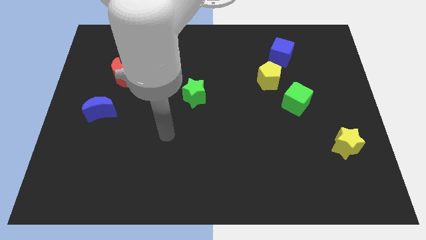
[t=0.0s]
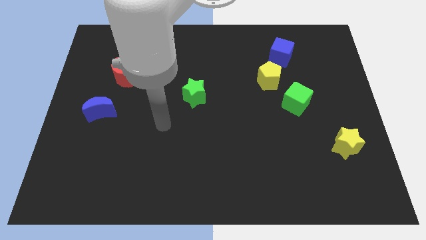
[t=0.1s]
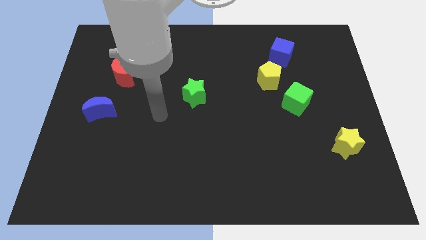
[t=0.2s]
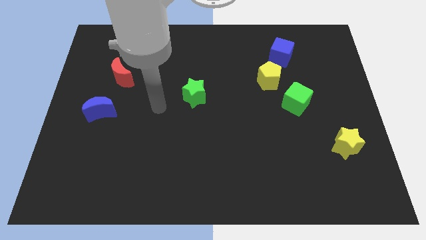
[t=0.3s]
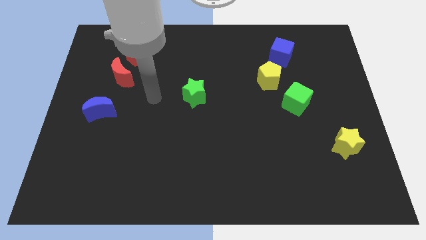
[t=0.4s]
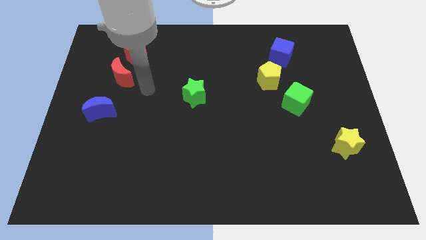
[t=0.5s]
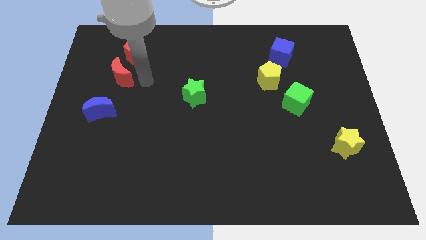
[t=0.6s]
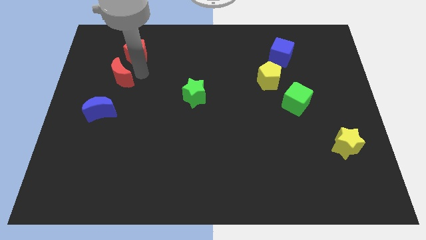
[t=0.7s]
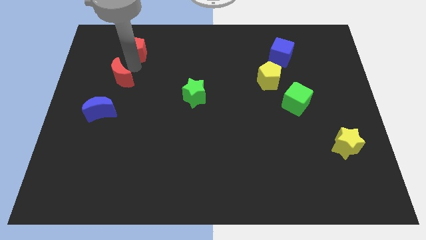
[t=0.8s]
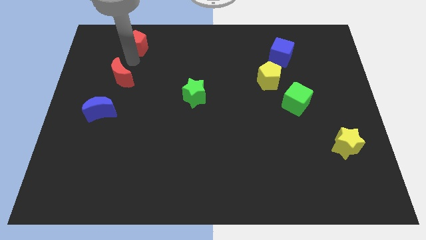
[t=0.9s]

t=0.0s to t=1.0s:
move the red moon away from the red pentagon

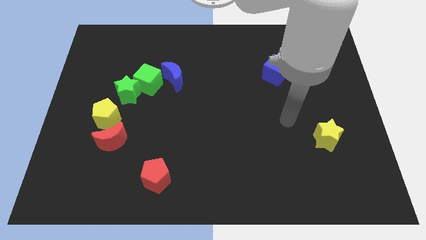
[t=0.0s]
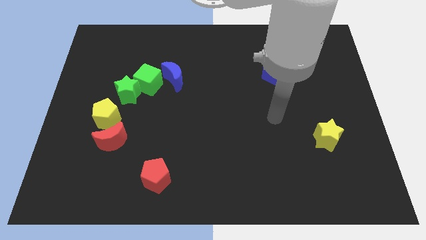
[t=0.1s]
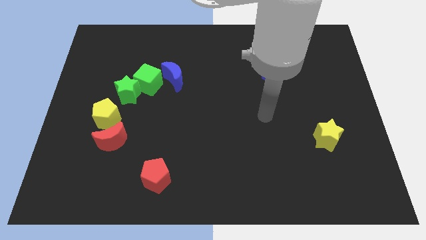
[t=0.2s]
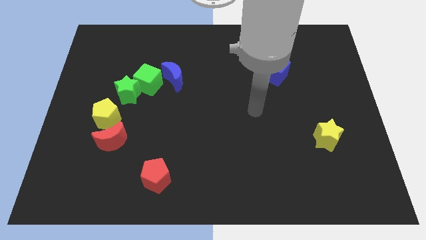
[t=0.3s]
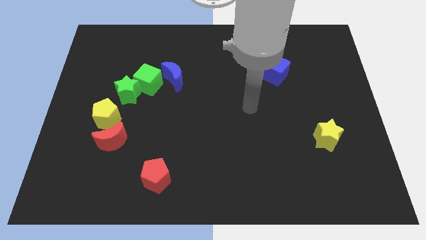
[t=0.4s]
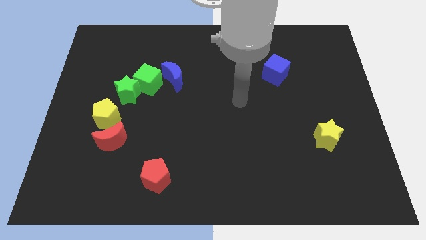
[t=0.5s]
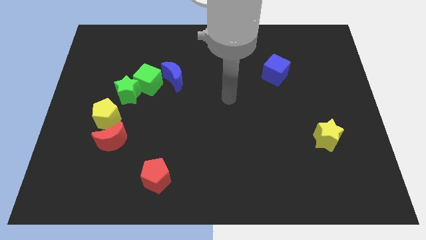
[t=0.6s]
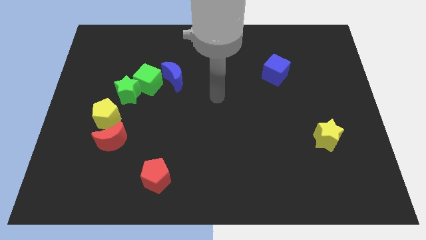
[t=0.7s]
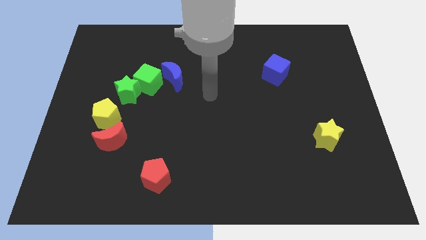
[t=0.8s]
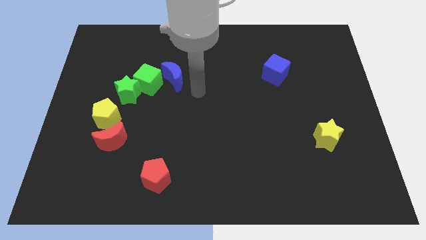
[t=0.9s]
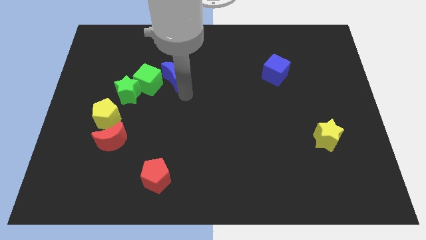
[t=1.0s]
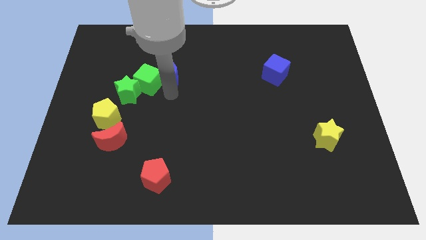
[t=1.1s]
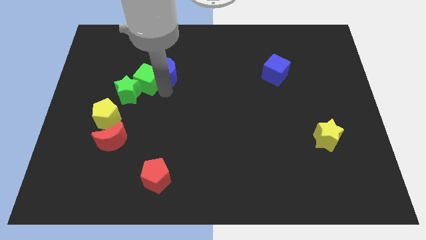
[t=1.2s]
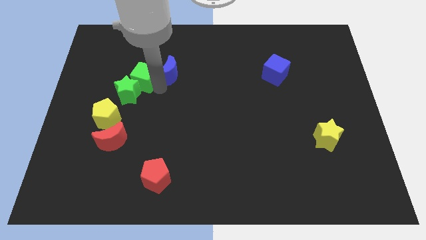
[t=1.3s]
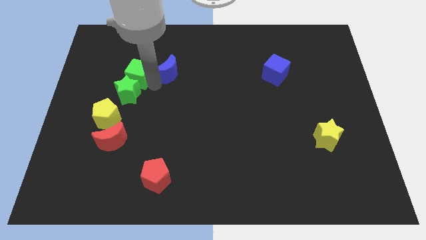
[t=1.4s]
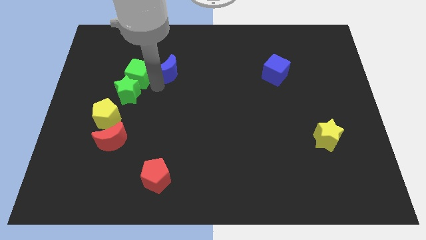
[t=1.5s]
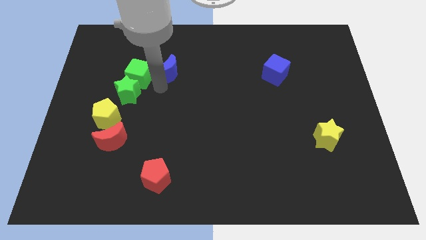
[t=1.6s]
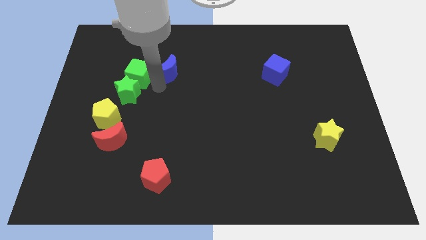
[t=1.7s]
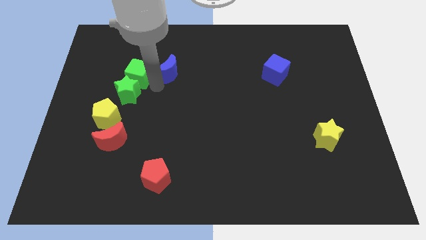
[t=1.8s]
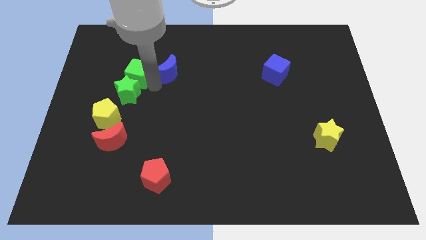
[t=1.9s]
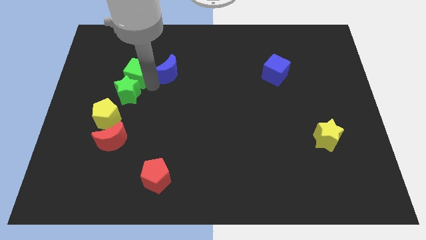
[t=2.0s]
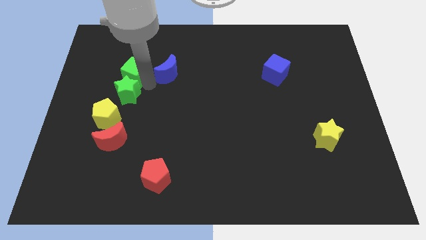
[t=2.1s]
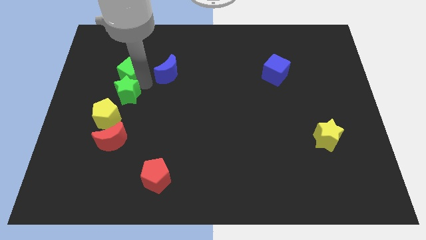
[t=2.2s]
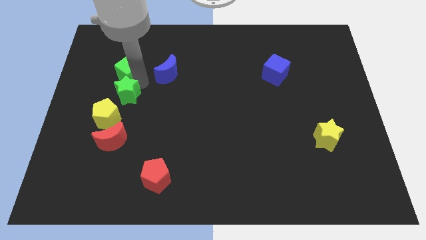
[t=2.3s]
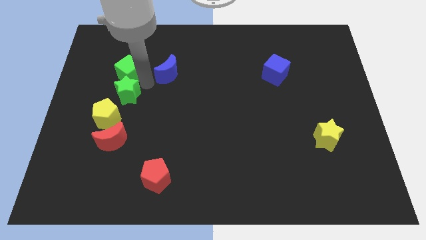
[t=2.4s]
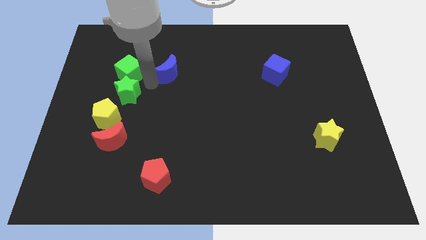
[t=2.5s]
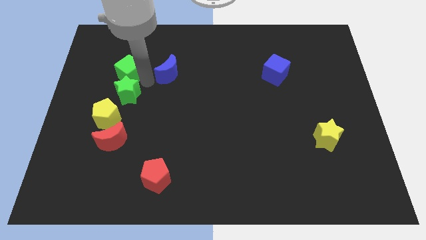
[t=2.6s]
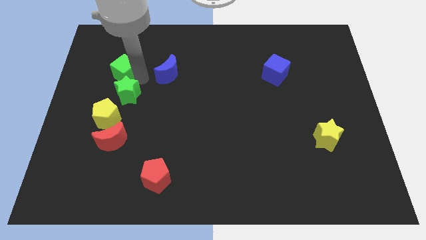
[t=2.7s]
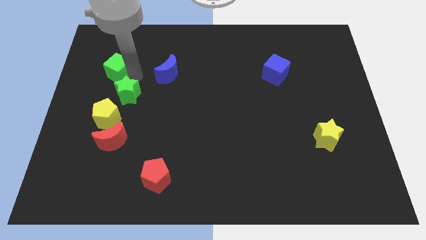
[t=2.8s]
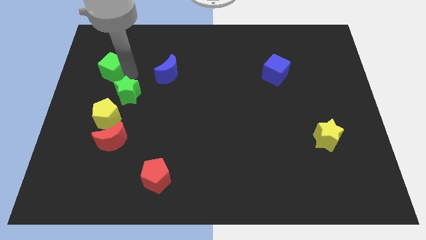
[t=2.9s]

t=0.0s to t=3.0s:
move the green cube away from the green star and blue moon

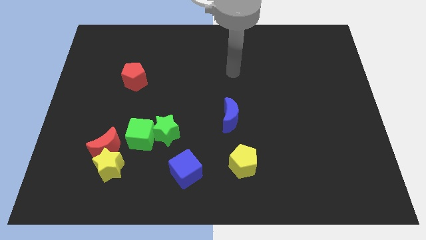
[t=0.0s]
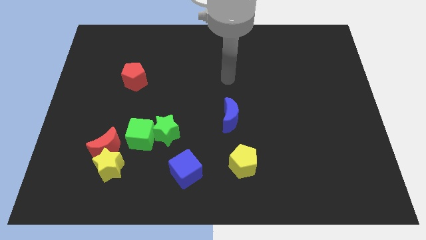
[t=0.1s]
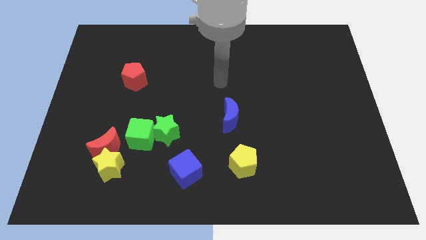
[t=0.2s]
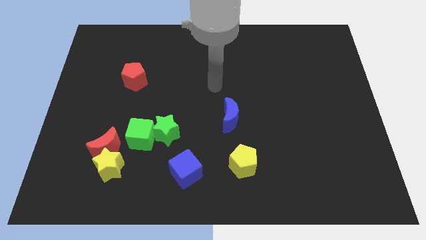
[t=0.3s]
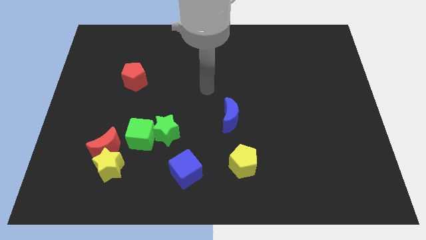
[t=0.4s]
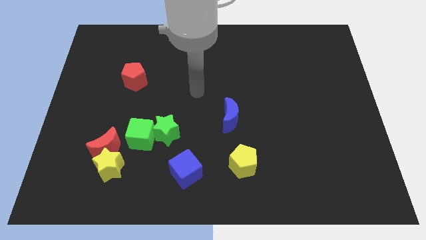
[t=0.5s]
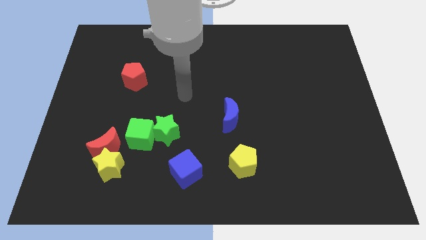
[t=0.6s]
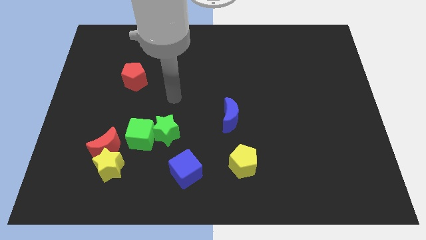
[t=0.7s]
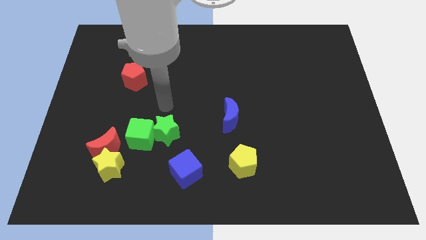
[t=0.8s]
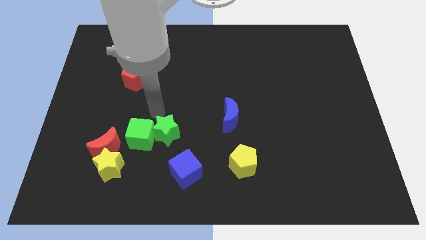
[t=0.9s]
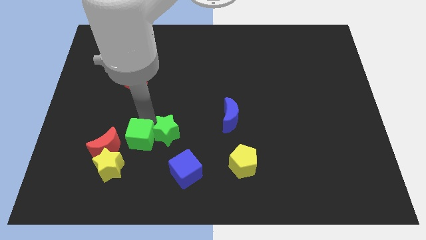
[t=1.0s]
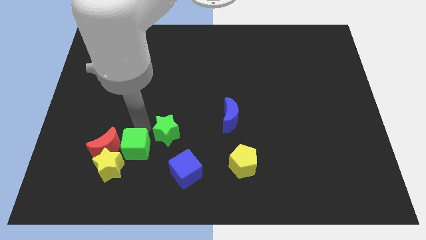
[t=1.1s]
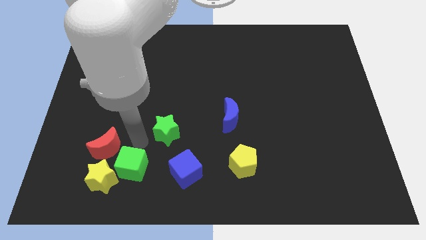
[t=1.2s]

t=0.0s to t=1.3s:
separate the green star from the green cube

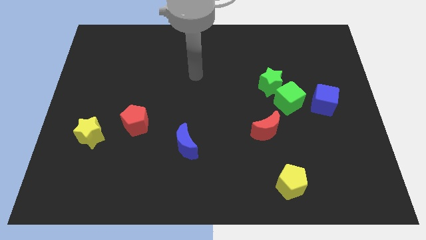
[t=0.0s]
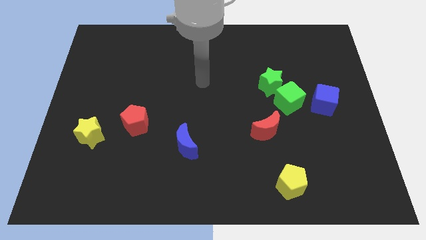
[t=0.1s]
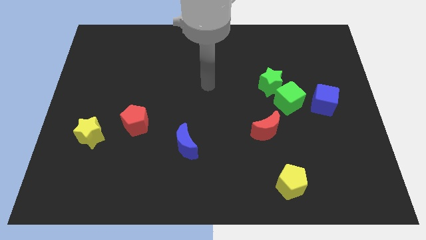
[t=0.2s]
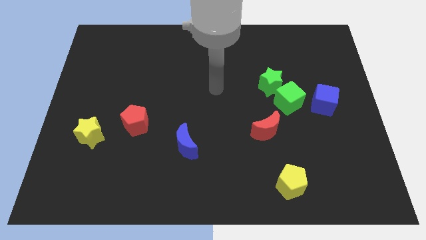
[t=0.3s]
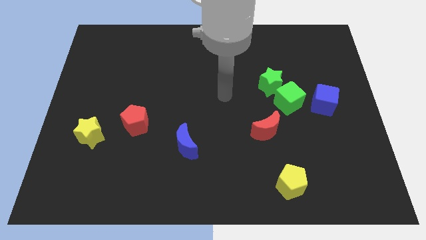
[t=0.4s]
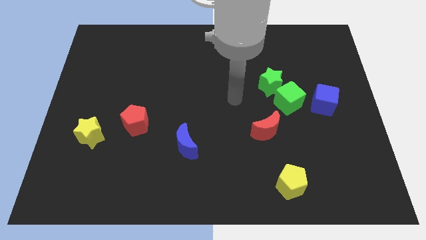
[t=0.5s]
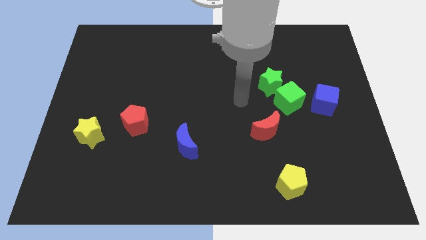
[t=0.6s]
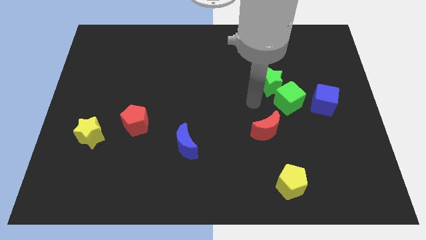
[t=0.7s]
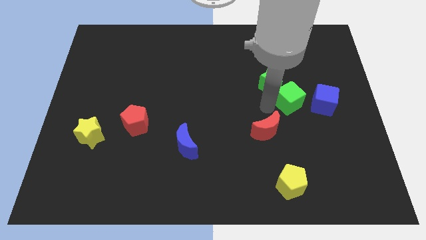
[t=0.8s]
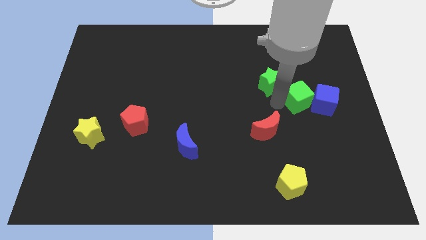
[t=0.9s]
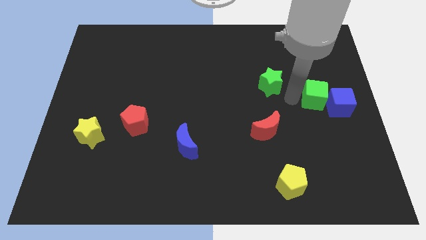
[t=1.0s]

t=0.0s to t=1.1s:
move the green star away from the green cube

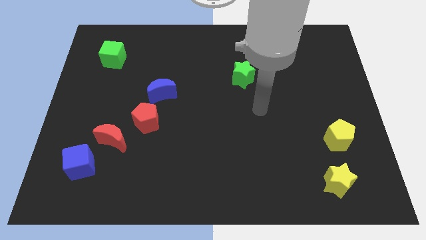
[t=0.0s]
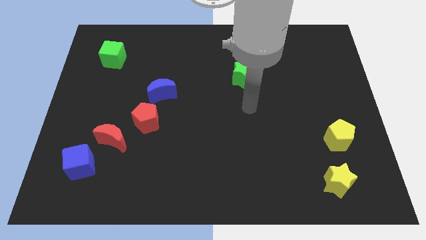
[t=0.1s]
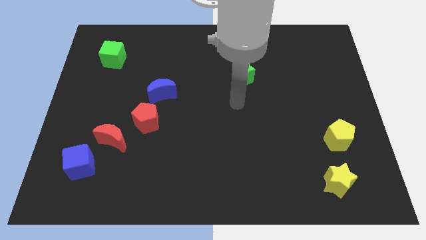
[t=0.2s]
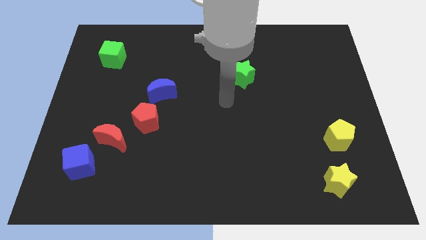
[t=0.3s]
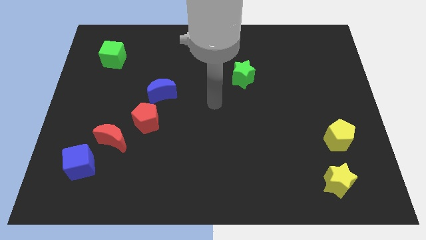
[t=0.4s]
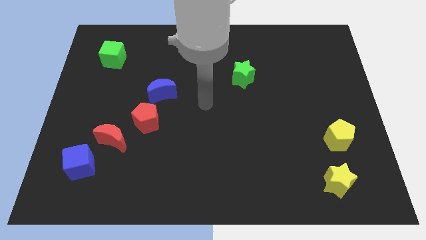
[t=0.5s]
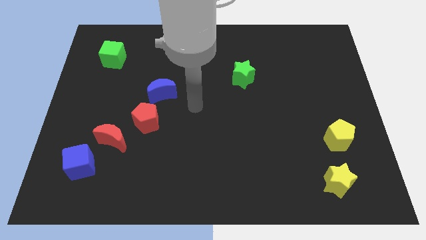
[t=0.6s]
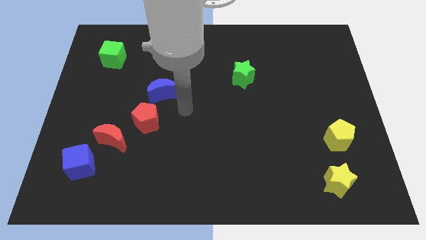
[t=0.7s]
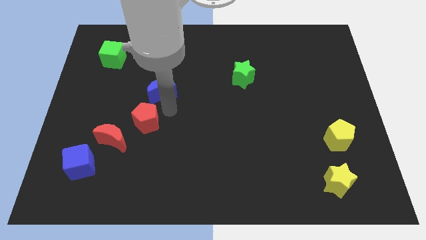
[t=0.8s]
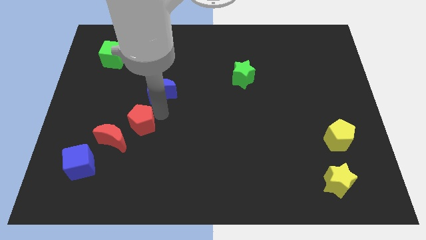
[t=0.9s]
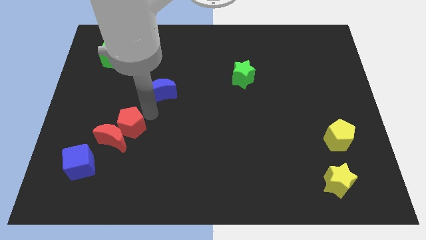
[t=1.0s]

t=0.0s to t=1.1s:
separate the blue moon from the red pentagon

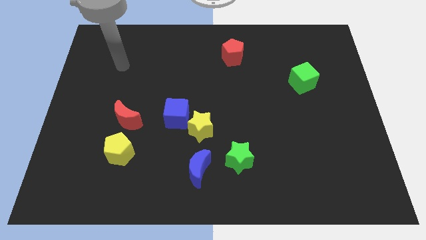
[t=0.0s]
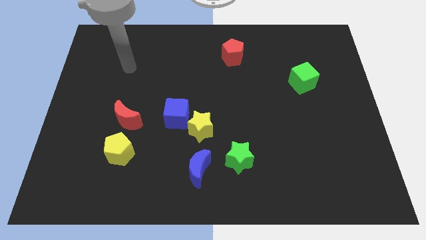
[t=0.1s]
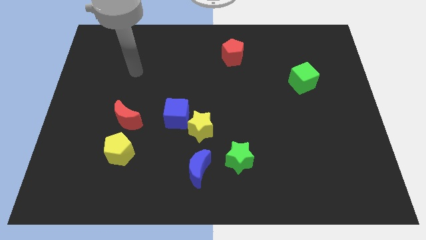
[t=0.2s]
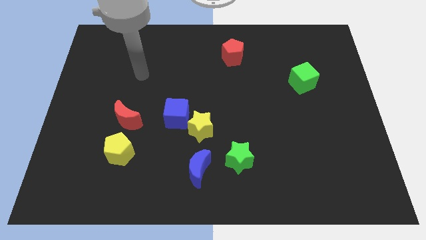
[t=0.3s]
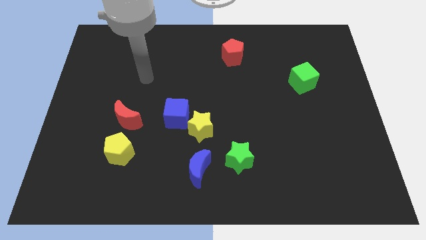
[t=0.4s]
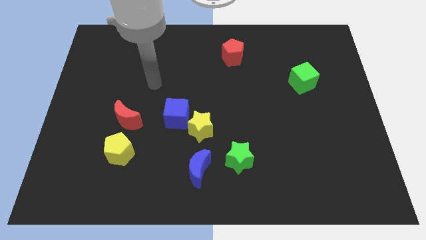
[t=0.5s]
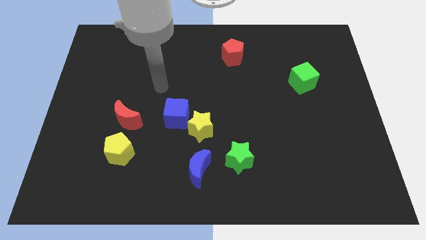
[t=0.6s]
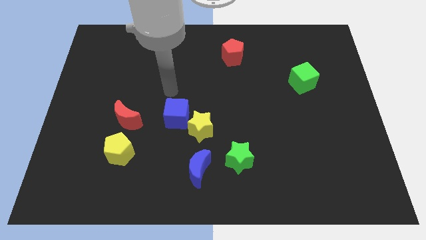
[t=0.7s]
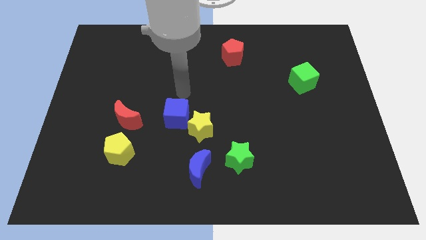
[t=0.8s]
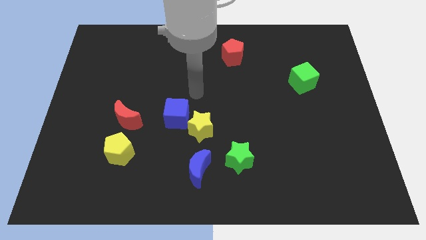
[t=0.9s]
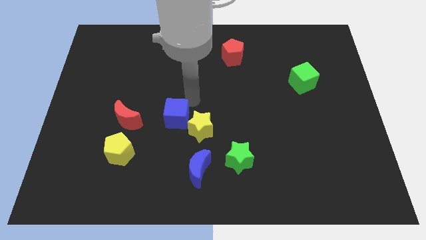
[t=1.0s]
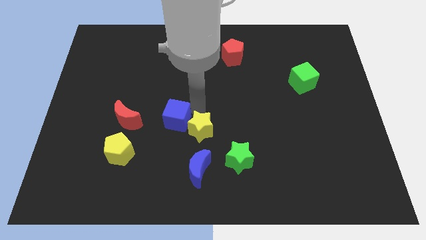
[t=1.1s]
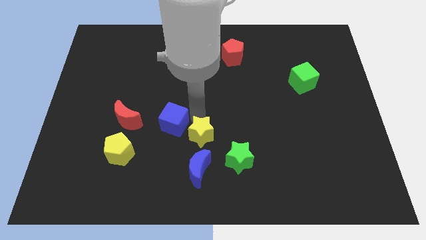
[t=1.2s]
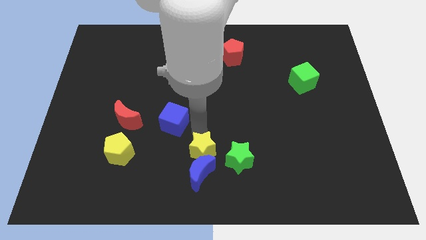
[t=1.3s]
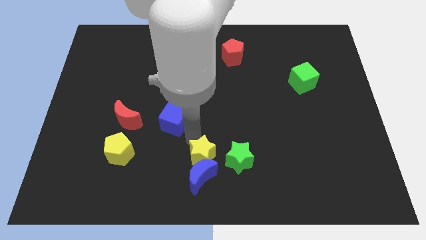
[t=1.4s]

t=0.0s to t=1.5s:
move the blue cube away from the yellow star

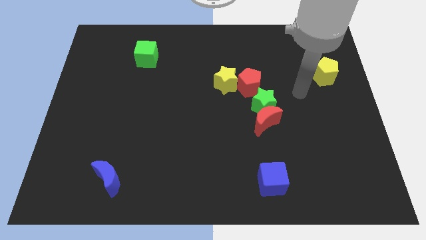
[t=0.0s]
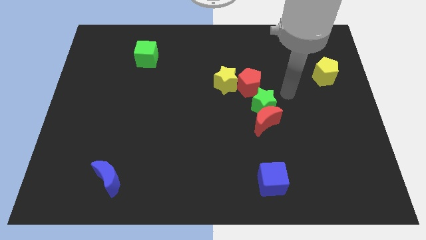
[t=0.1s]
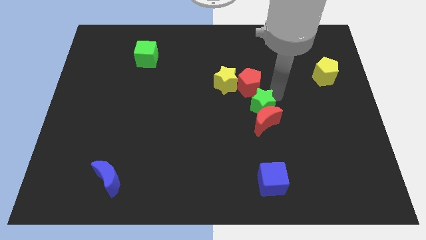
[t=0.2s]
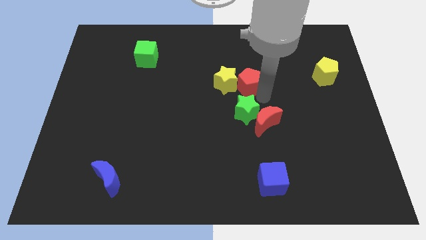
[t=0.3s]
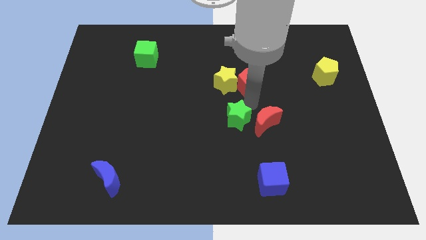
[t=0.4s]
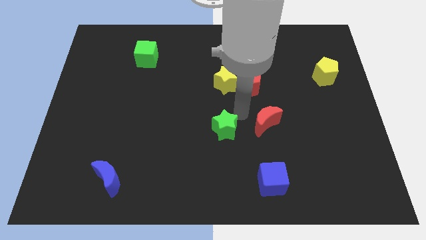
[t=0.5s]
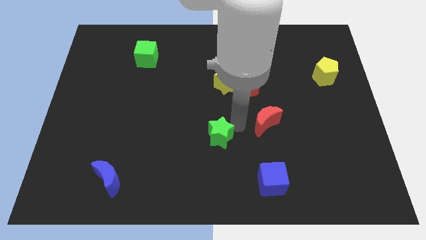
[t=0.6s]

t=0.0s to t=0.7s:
pull the red moon apart from the green star
